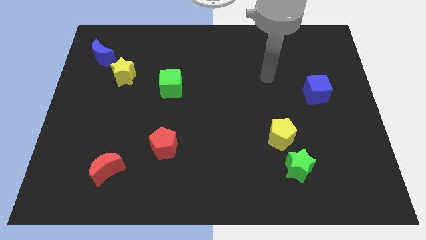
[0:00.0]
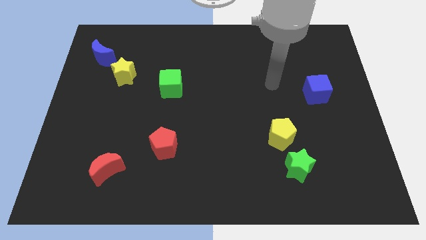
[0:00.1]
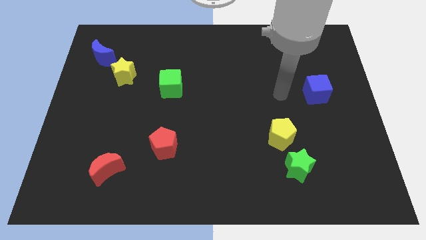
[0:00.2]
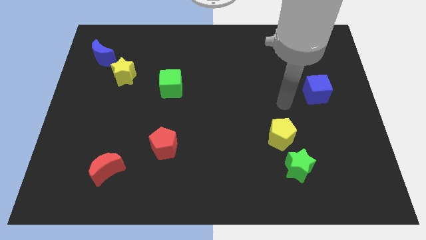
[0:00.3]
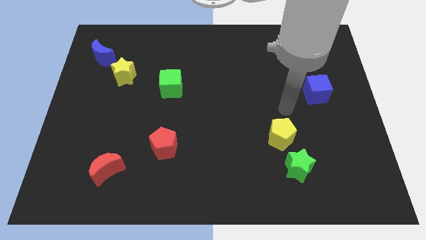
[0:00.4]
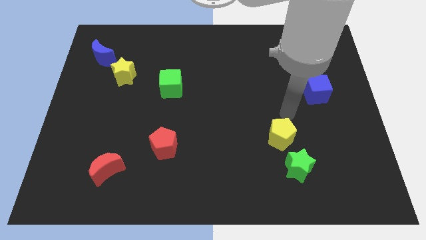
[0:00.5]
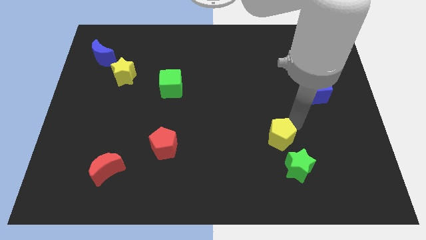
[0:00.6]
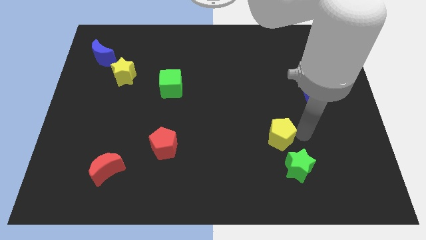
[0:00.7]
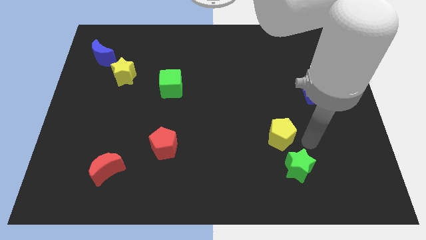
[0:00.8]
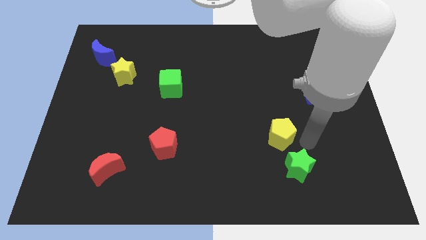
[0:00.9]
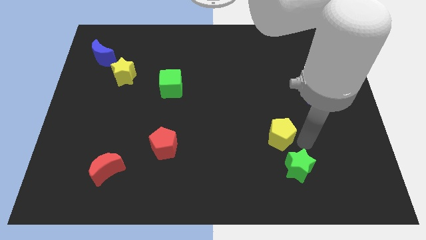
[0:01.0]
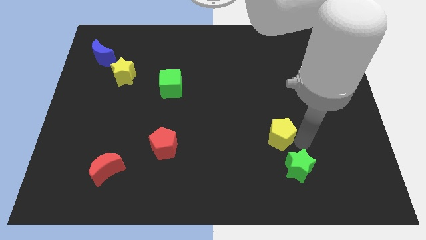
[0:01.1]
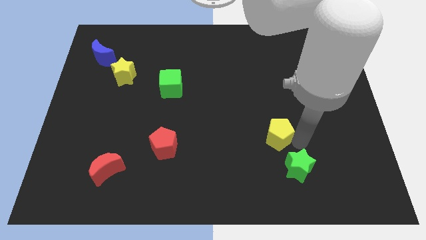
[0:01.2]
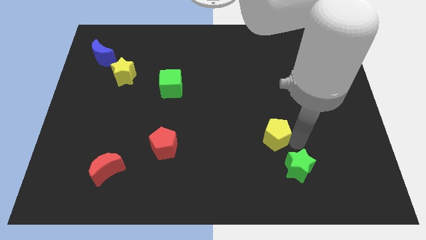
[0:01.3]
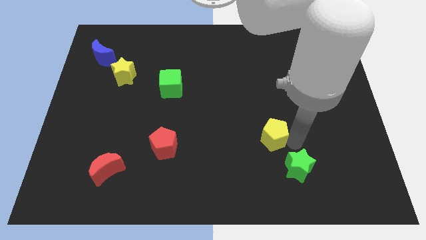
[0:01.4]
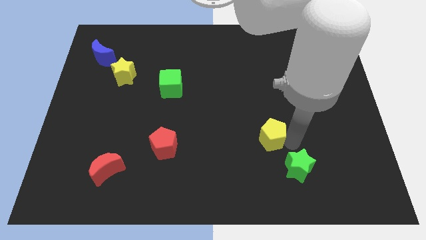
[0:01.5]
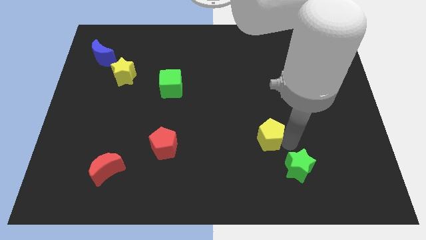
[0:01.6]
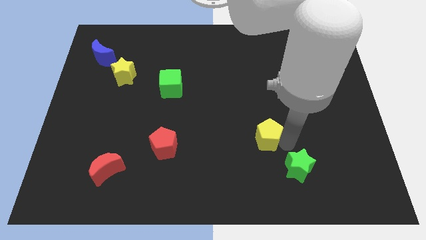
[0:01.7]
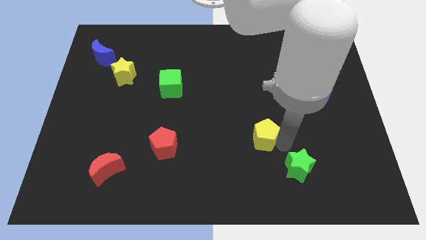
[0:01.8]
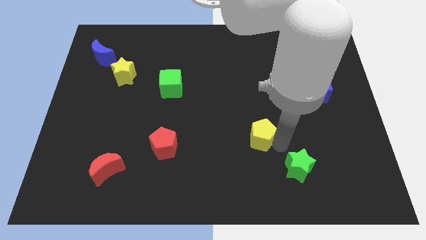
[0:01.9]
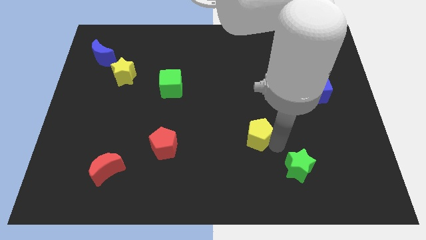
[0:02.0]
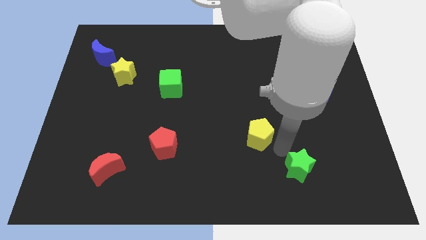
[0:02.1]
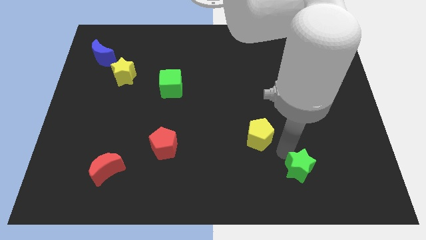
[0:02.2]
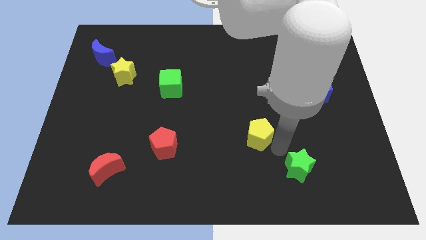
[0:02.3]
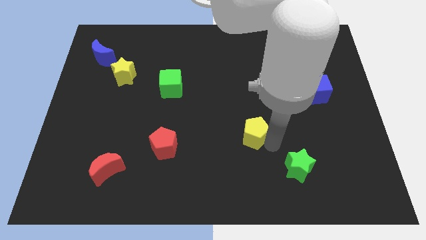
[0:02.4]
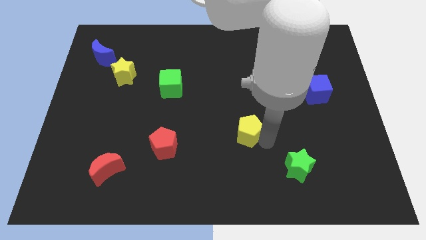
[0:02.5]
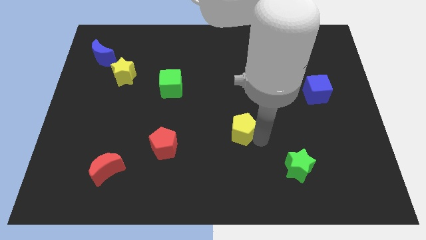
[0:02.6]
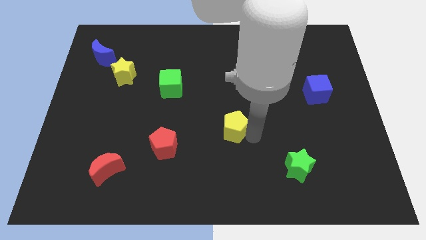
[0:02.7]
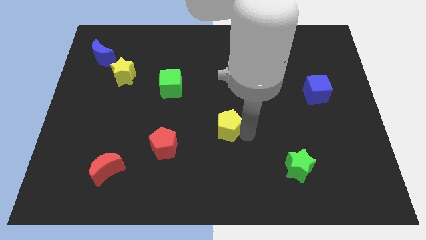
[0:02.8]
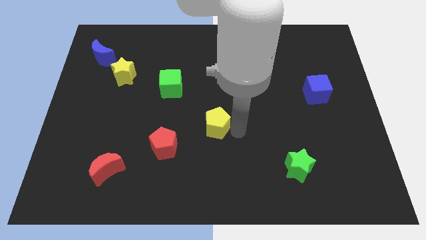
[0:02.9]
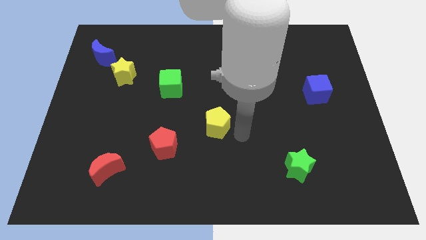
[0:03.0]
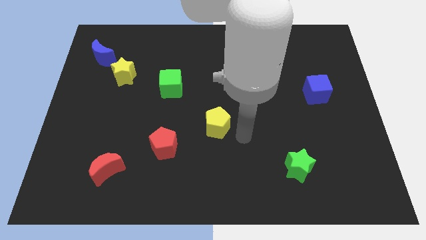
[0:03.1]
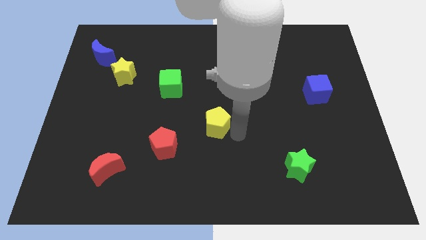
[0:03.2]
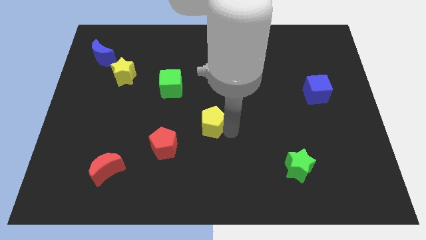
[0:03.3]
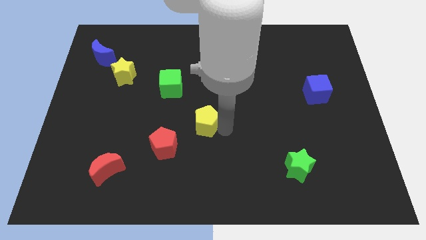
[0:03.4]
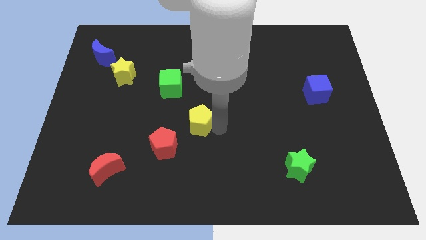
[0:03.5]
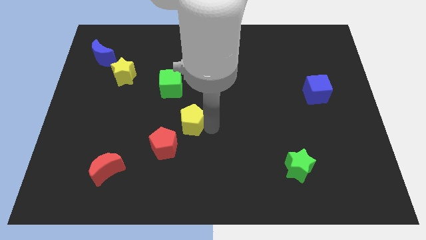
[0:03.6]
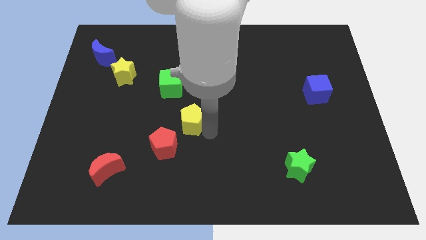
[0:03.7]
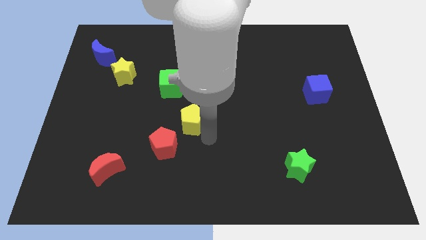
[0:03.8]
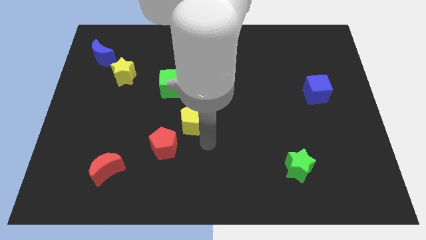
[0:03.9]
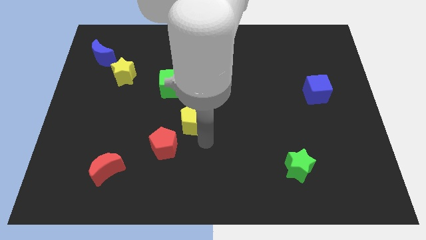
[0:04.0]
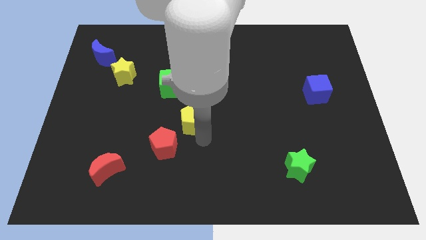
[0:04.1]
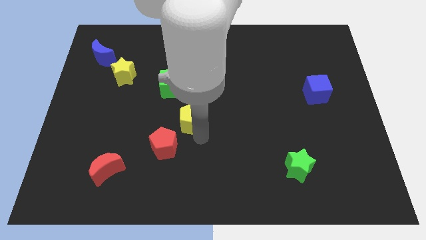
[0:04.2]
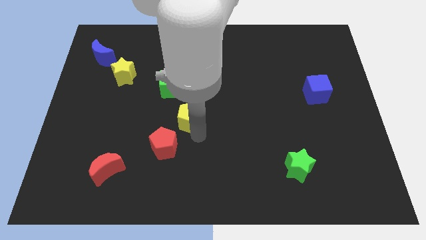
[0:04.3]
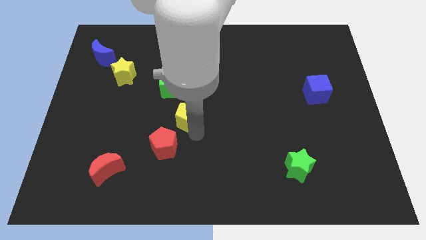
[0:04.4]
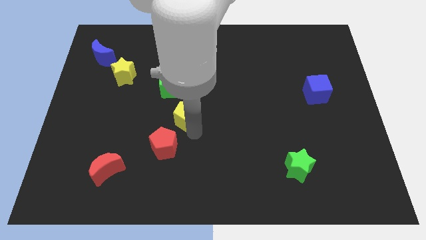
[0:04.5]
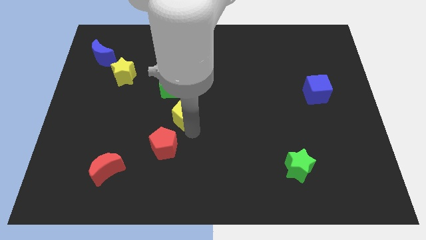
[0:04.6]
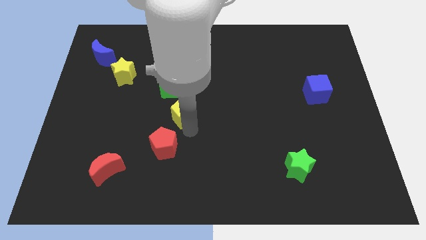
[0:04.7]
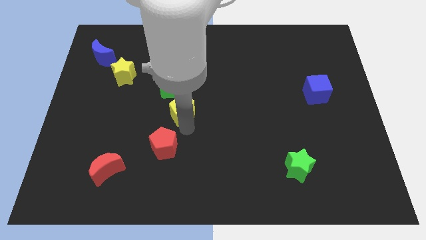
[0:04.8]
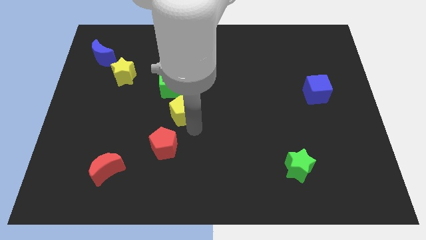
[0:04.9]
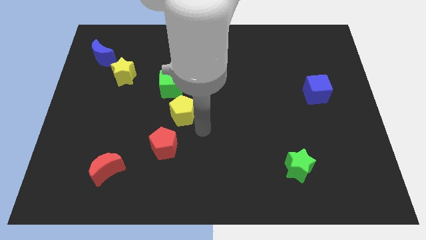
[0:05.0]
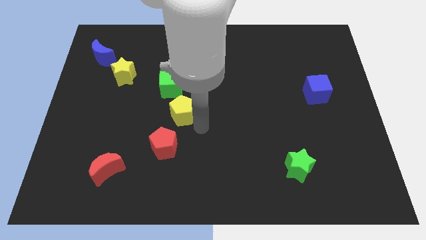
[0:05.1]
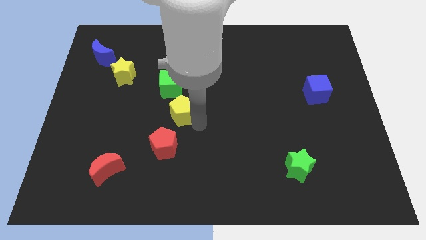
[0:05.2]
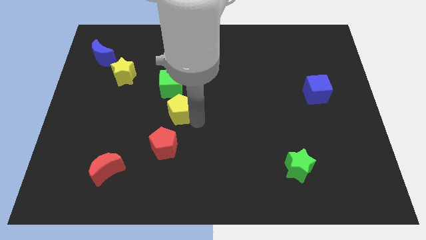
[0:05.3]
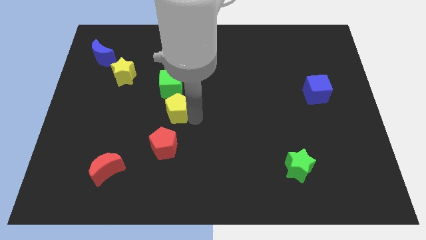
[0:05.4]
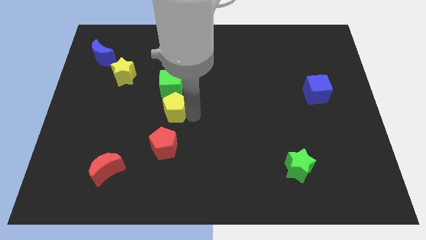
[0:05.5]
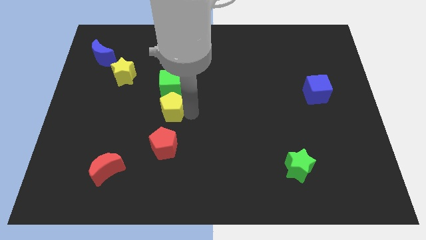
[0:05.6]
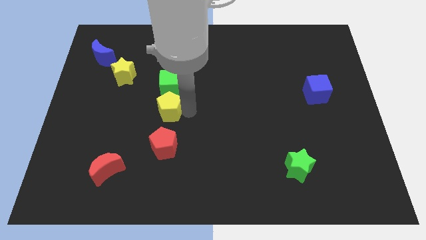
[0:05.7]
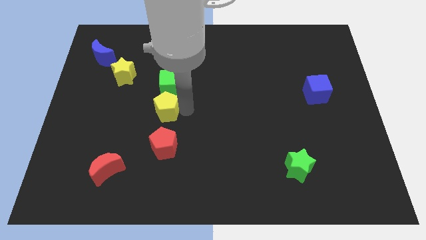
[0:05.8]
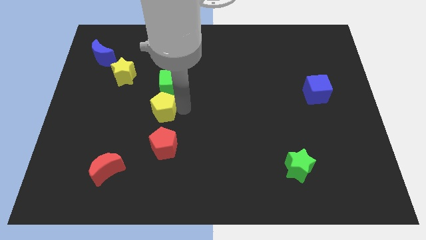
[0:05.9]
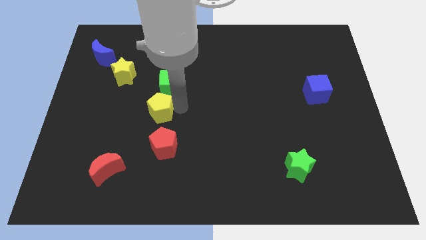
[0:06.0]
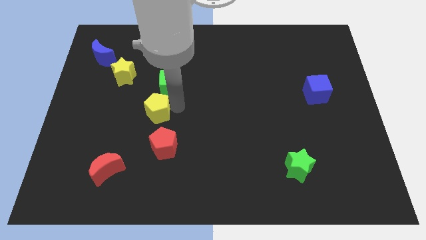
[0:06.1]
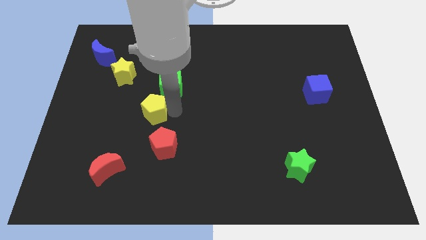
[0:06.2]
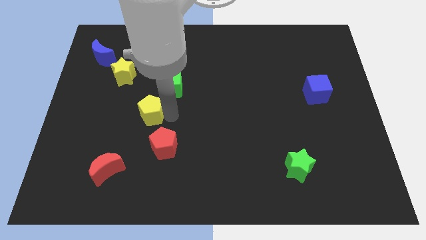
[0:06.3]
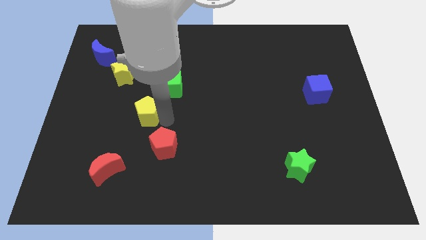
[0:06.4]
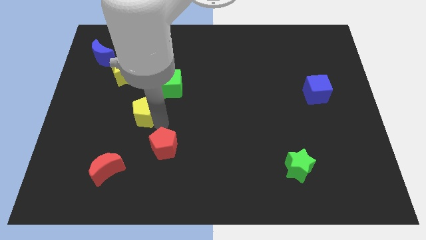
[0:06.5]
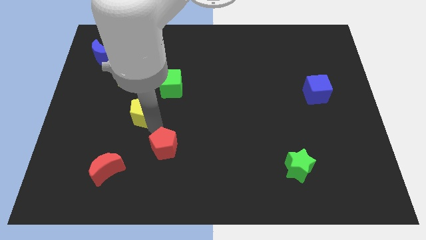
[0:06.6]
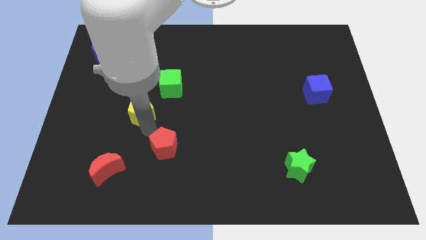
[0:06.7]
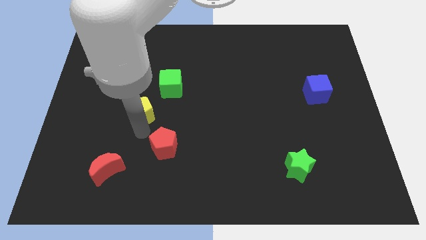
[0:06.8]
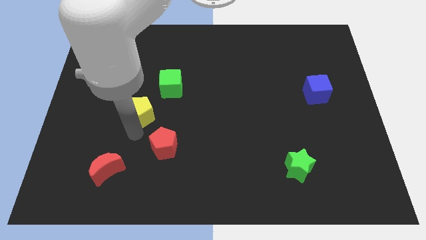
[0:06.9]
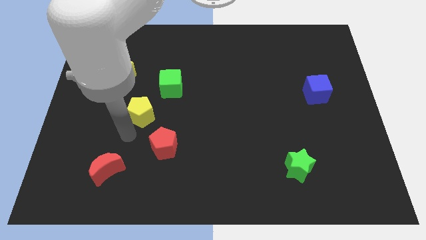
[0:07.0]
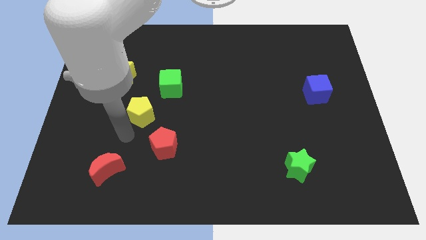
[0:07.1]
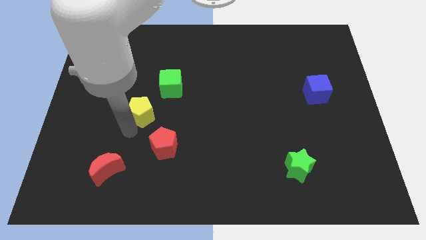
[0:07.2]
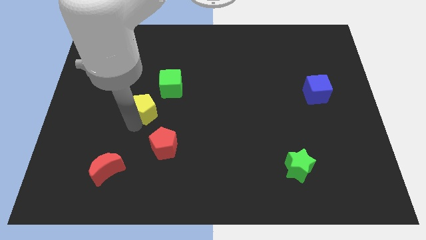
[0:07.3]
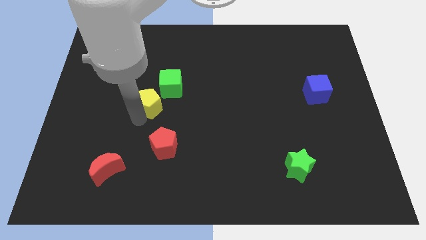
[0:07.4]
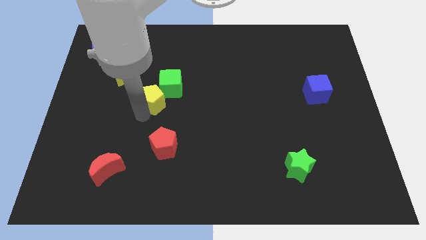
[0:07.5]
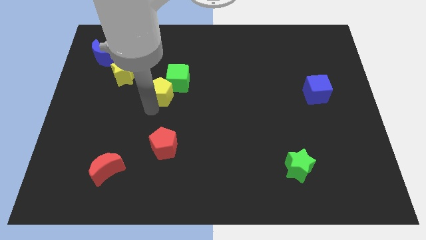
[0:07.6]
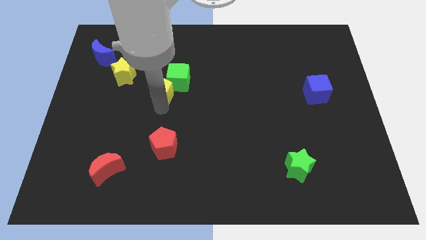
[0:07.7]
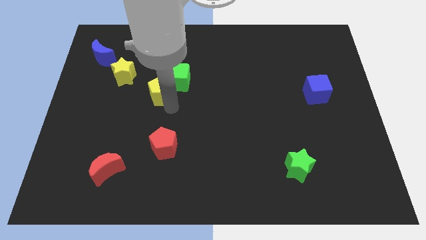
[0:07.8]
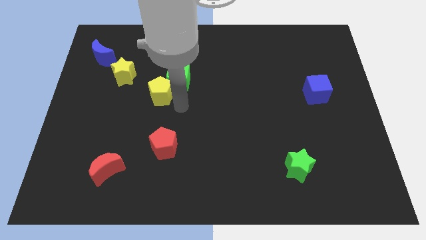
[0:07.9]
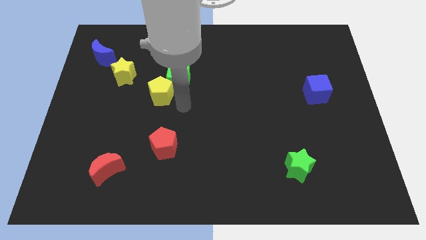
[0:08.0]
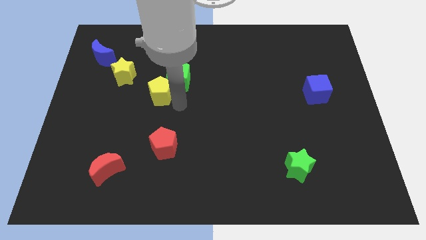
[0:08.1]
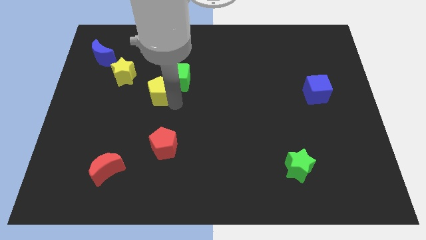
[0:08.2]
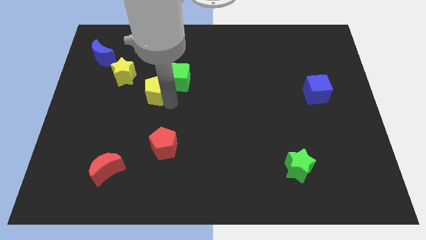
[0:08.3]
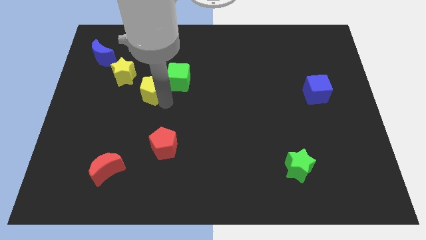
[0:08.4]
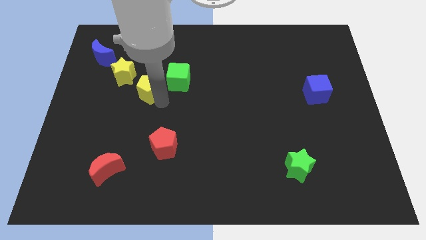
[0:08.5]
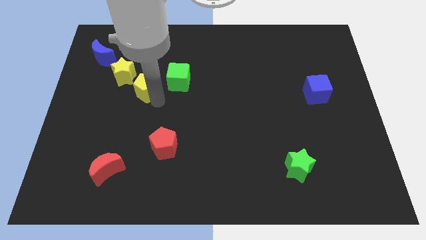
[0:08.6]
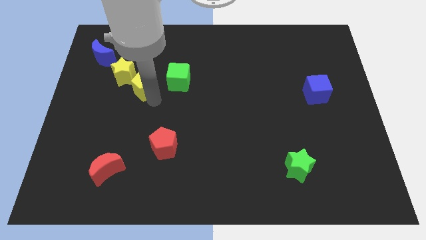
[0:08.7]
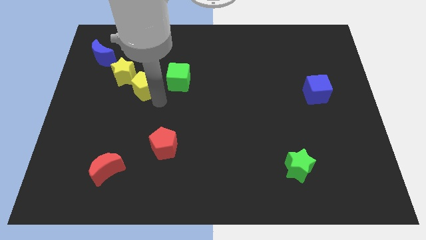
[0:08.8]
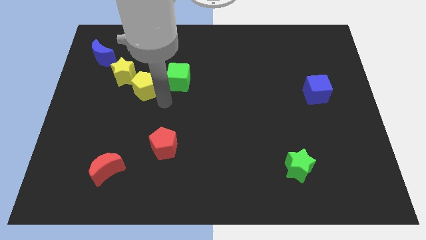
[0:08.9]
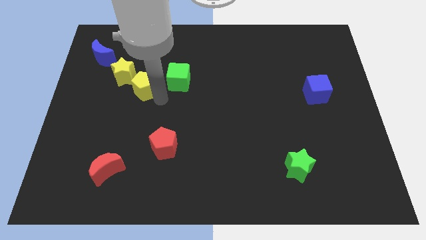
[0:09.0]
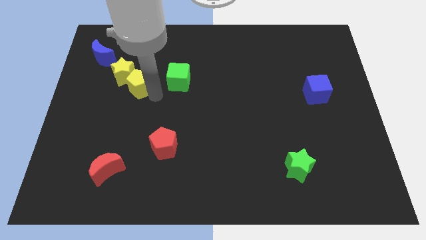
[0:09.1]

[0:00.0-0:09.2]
put the yellow pentagon close to the yellow star
